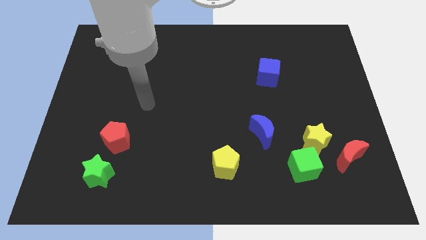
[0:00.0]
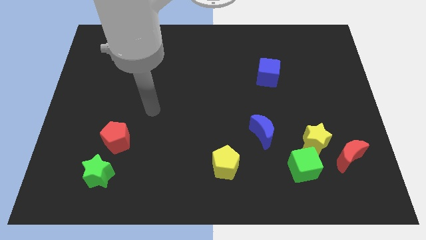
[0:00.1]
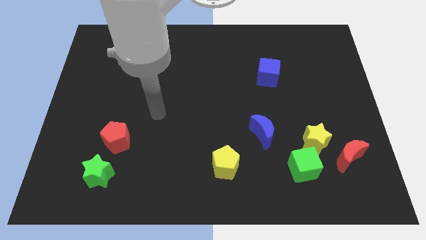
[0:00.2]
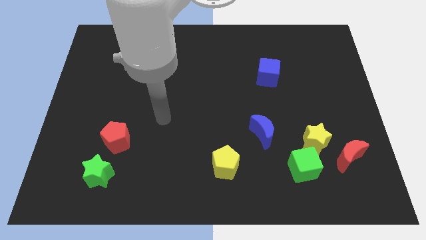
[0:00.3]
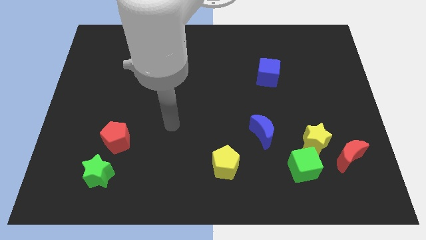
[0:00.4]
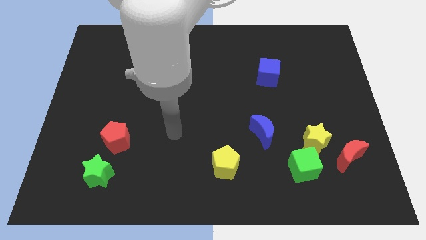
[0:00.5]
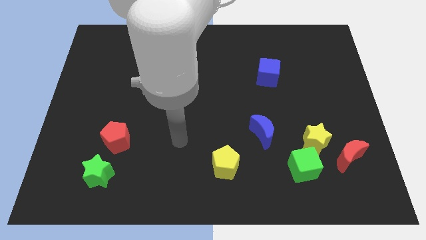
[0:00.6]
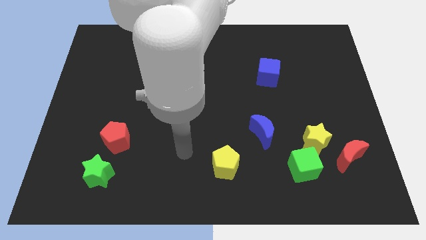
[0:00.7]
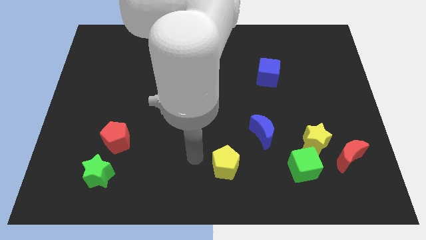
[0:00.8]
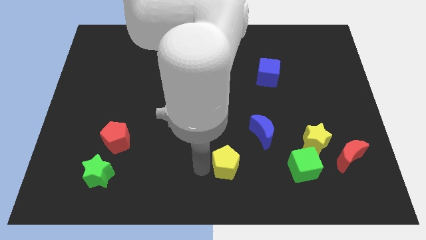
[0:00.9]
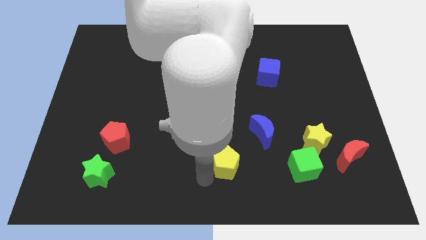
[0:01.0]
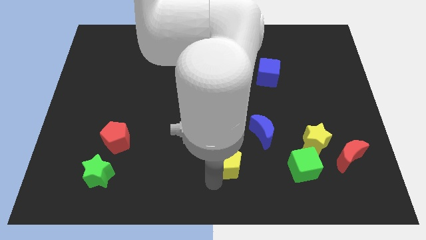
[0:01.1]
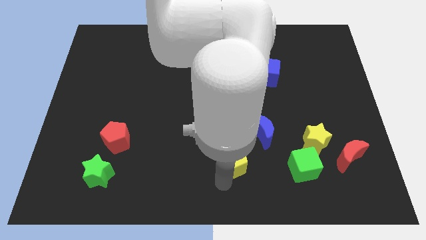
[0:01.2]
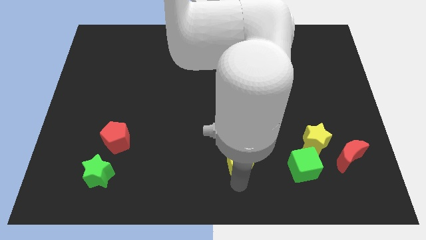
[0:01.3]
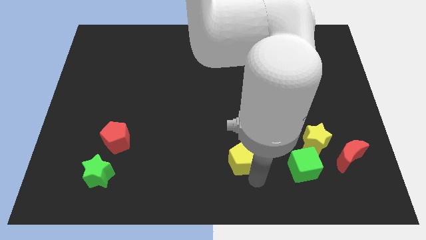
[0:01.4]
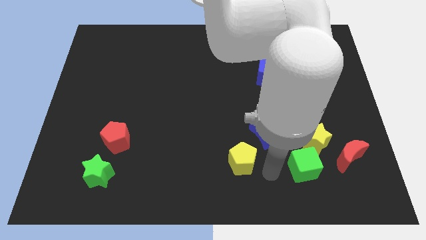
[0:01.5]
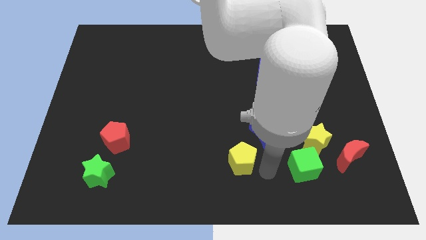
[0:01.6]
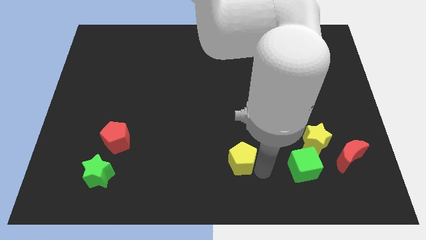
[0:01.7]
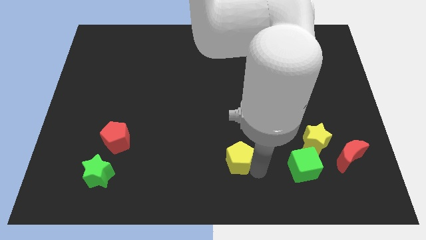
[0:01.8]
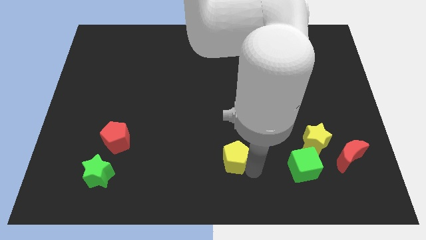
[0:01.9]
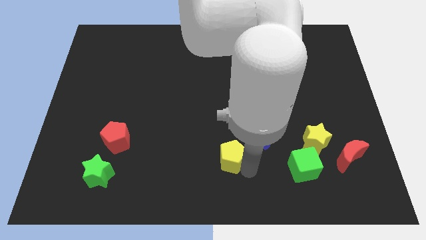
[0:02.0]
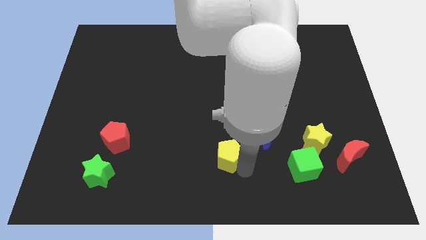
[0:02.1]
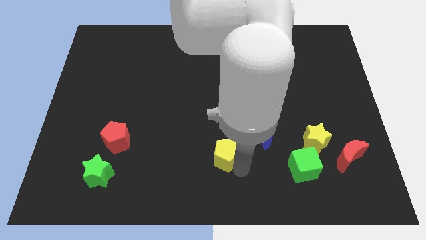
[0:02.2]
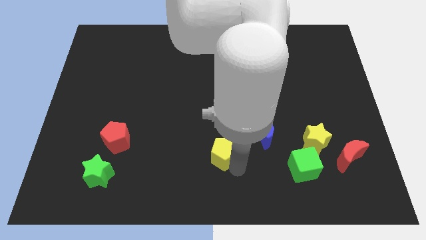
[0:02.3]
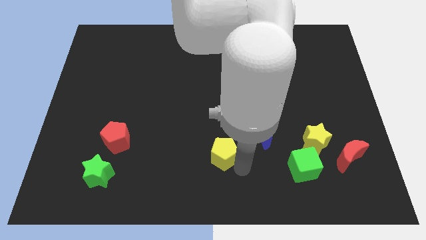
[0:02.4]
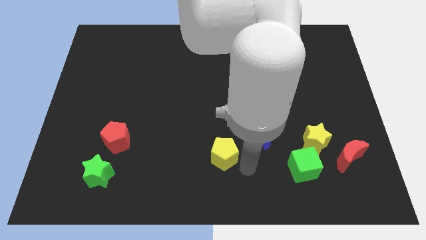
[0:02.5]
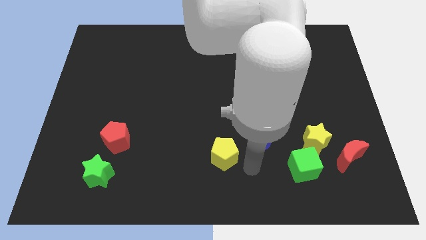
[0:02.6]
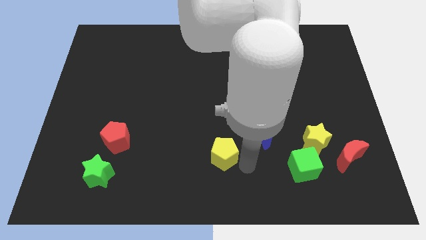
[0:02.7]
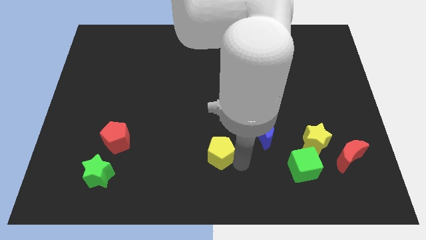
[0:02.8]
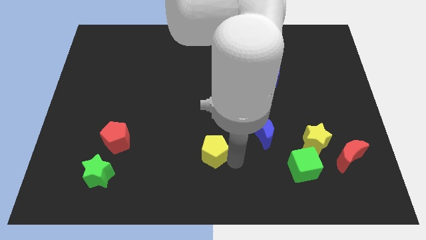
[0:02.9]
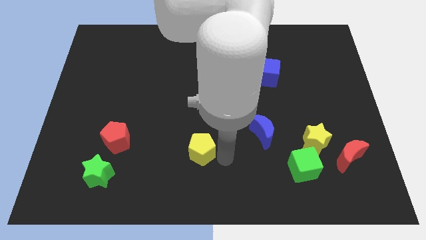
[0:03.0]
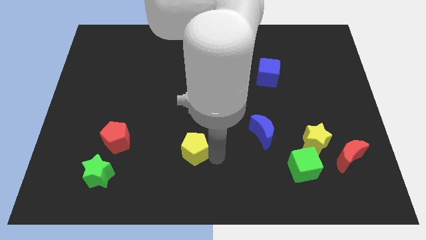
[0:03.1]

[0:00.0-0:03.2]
push the yellow pentagon diagonally upwards and to the left slightly

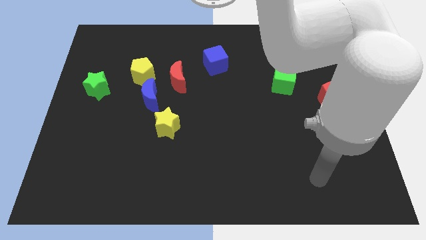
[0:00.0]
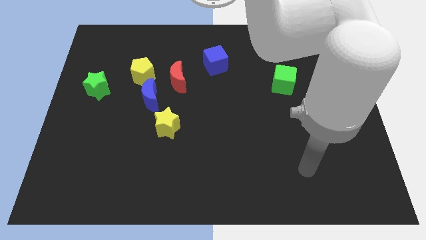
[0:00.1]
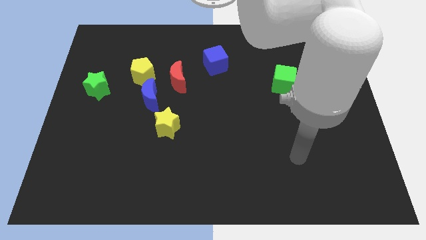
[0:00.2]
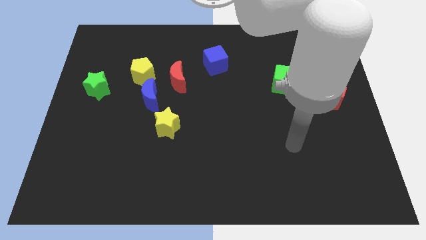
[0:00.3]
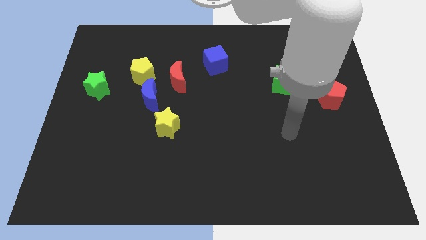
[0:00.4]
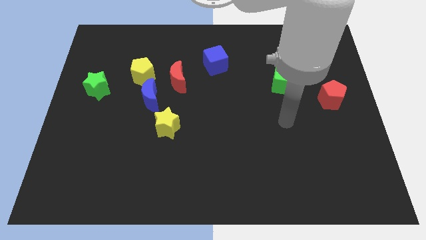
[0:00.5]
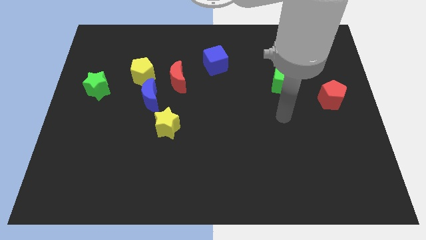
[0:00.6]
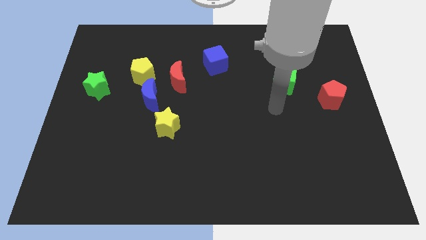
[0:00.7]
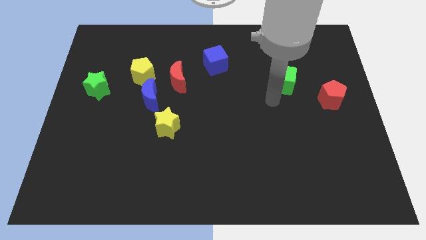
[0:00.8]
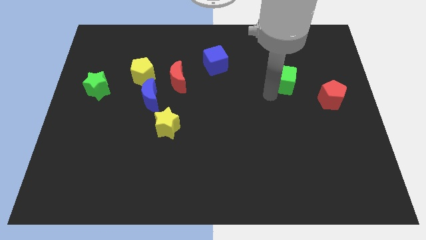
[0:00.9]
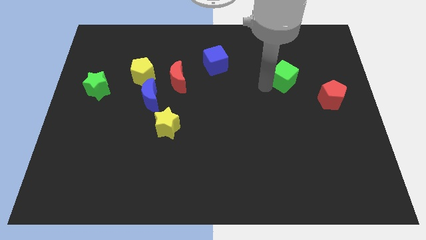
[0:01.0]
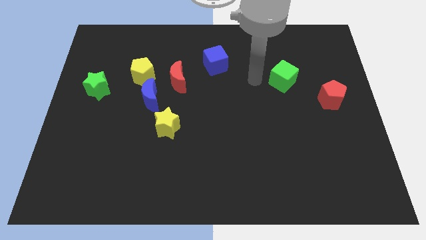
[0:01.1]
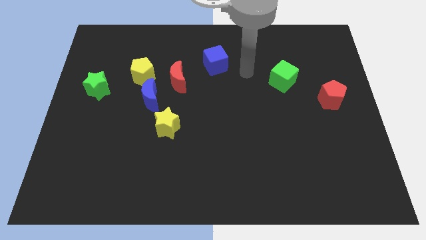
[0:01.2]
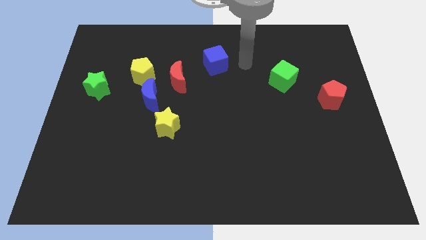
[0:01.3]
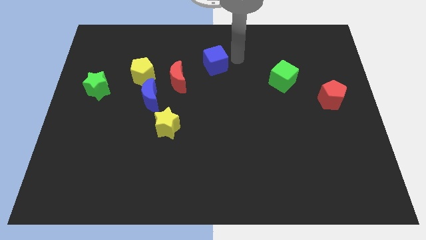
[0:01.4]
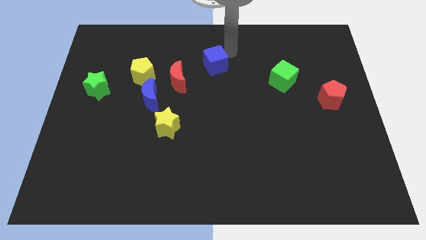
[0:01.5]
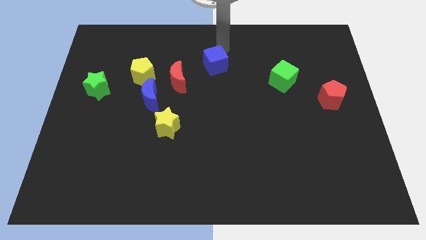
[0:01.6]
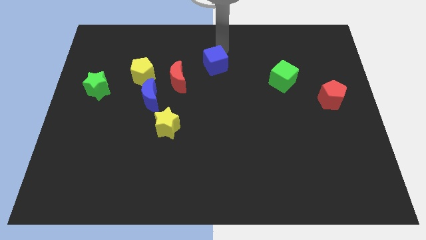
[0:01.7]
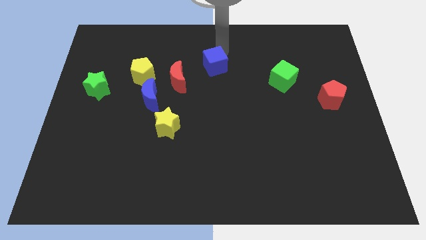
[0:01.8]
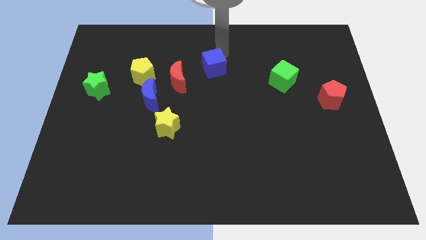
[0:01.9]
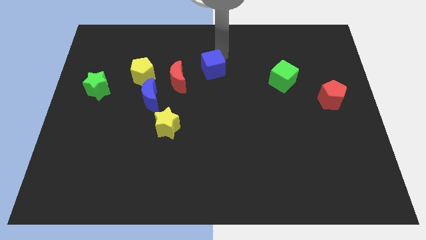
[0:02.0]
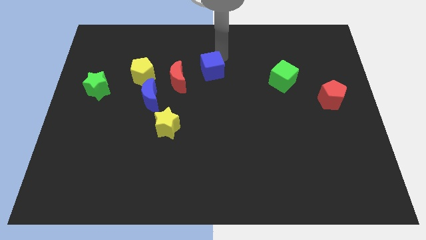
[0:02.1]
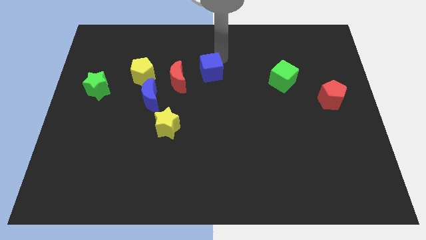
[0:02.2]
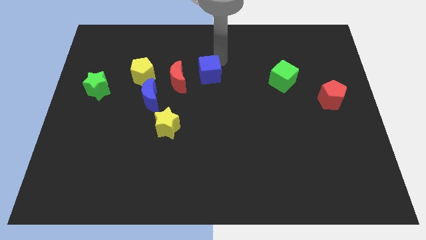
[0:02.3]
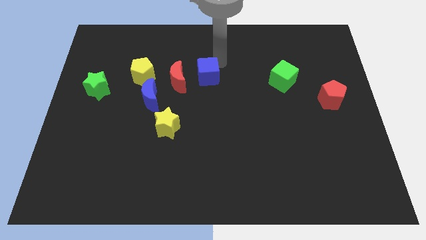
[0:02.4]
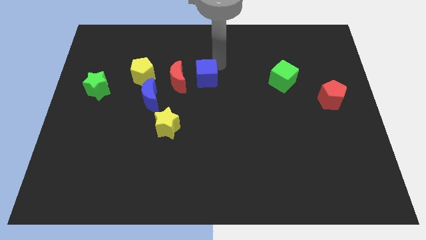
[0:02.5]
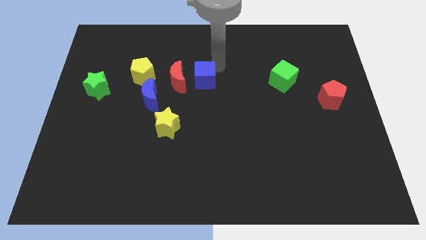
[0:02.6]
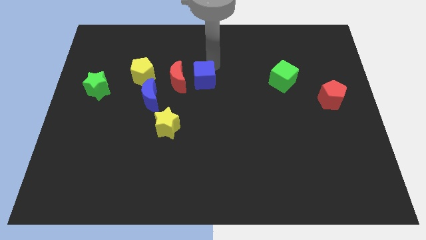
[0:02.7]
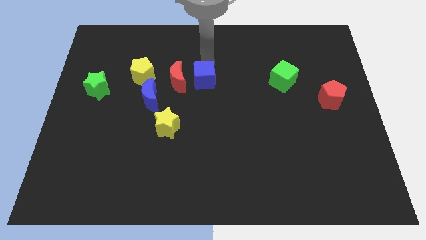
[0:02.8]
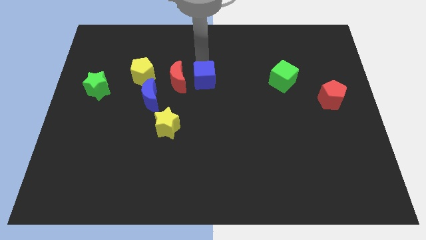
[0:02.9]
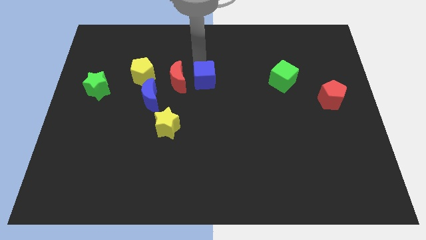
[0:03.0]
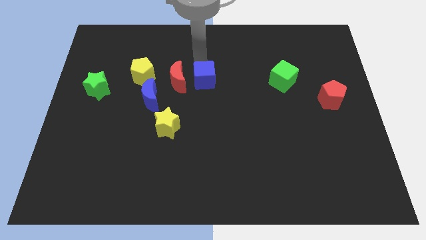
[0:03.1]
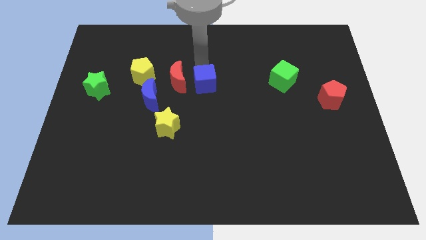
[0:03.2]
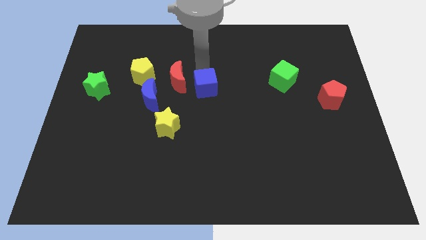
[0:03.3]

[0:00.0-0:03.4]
slightly move the blue cube downwards

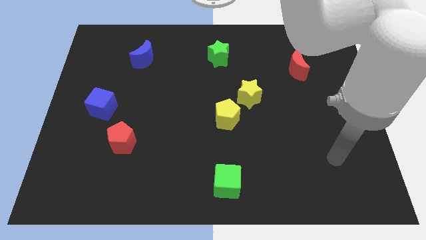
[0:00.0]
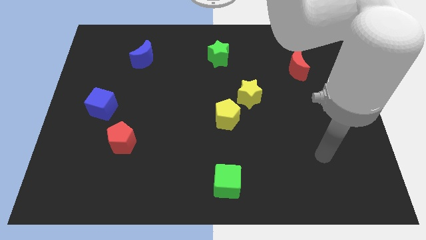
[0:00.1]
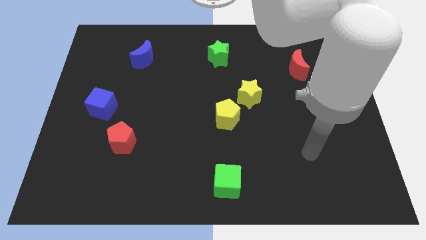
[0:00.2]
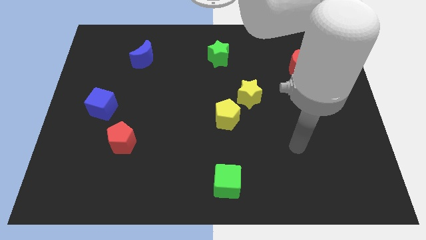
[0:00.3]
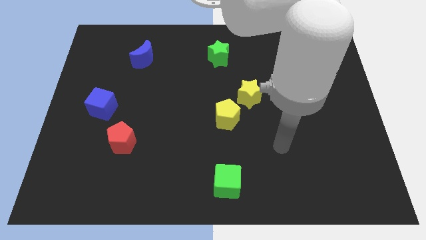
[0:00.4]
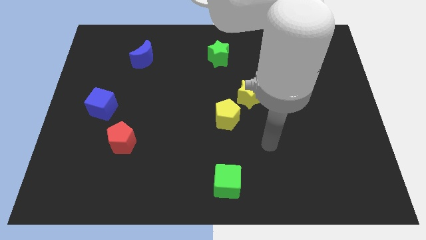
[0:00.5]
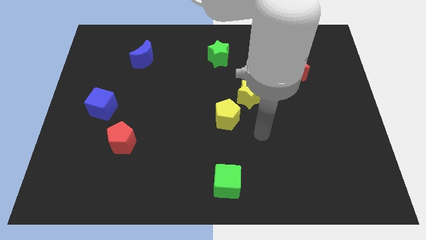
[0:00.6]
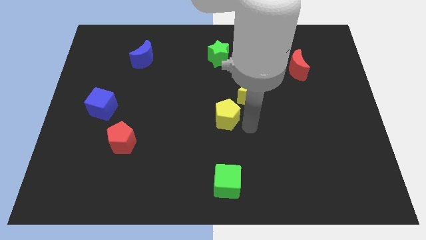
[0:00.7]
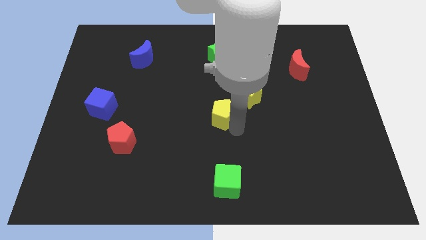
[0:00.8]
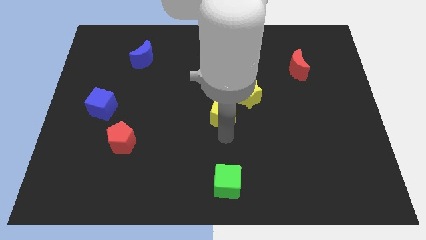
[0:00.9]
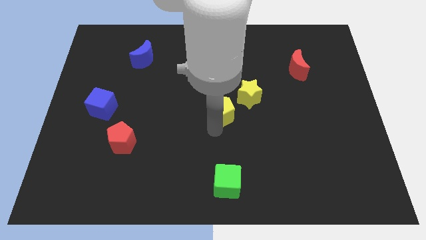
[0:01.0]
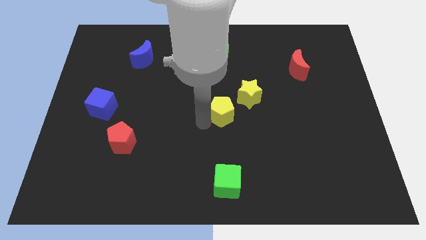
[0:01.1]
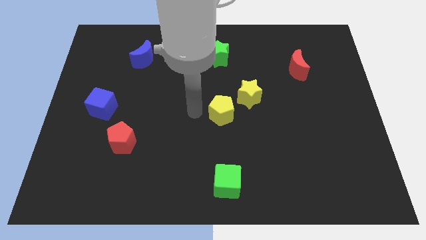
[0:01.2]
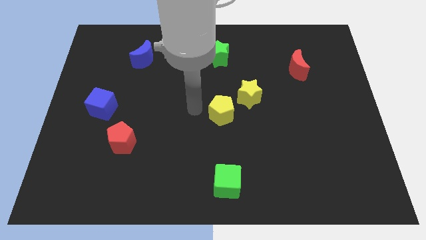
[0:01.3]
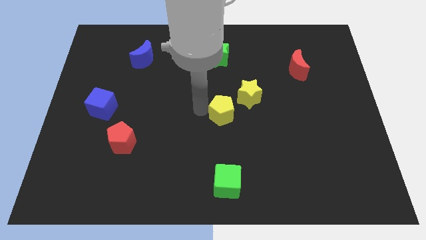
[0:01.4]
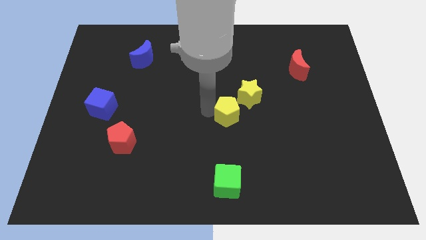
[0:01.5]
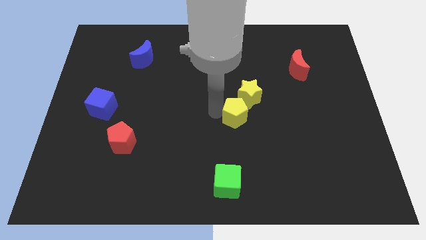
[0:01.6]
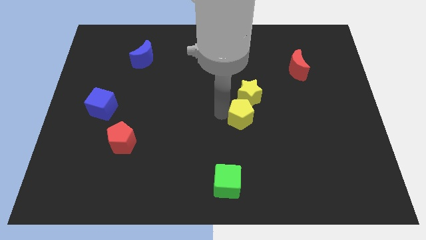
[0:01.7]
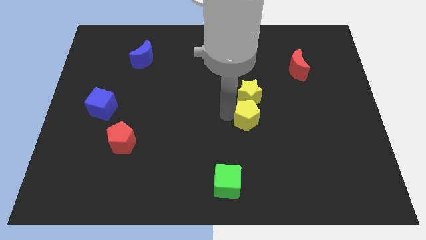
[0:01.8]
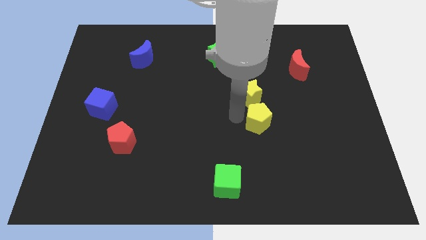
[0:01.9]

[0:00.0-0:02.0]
slightly move the yellow pentagon right
